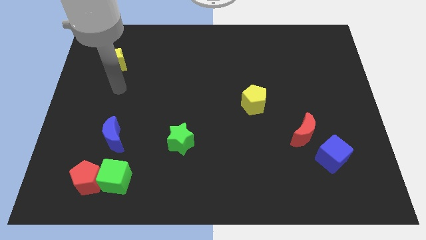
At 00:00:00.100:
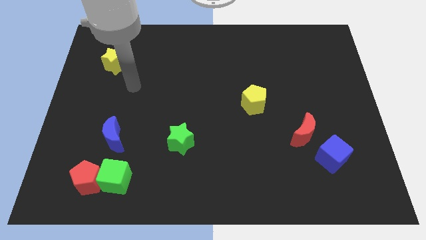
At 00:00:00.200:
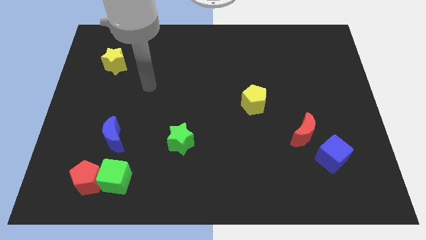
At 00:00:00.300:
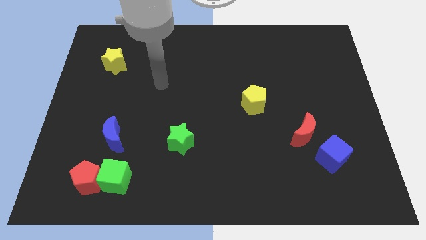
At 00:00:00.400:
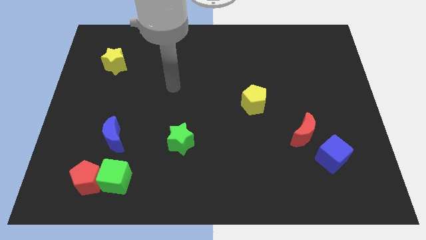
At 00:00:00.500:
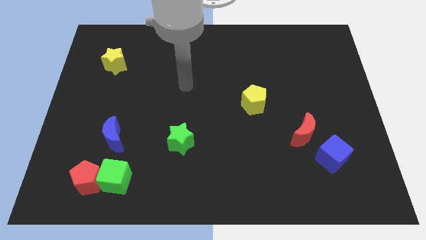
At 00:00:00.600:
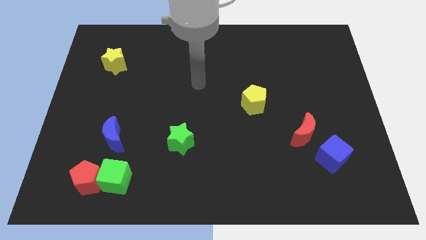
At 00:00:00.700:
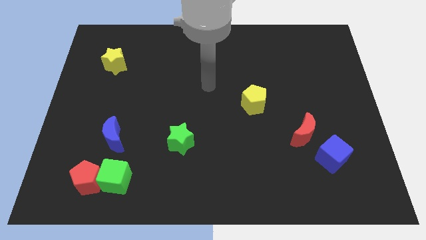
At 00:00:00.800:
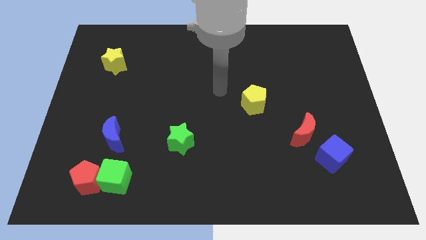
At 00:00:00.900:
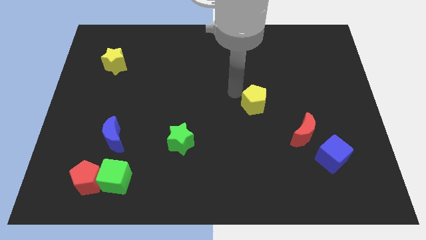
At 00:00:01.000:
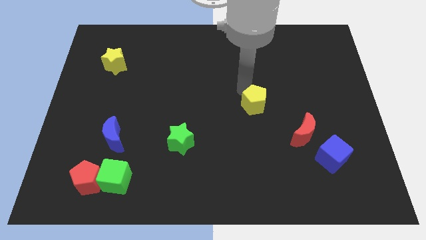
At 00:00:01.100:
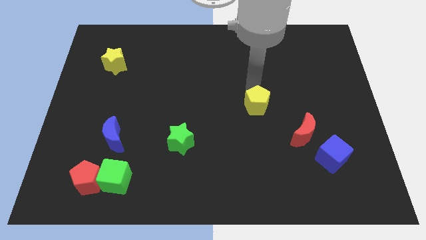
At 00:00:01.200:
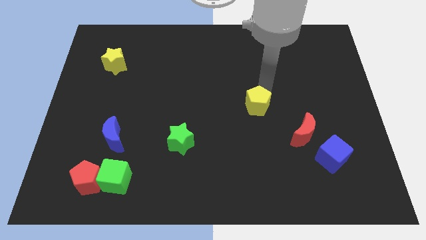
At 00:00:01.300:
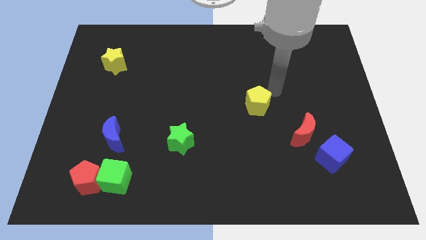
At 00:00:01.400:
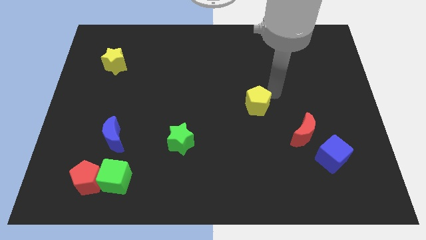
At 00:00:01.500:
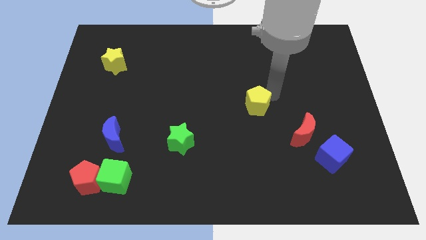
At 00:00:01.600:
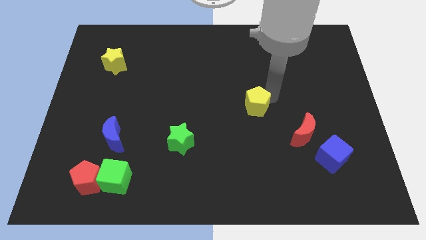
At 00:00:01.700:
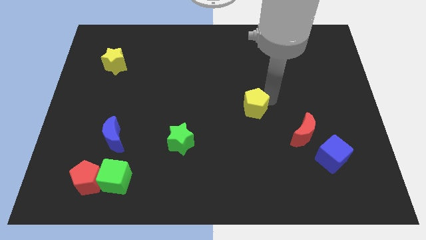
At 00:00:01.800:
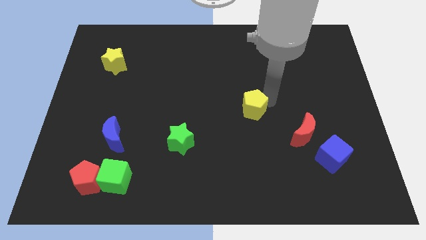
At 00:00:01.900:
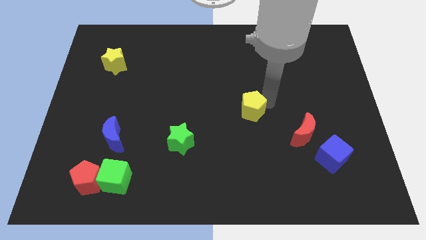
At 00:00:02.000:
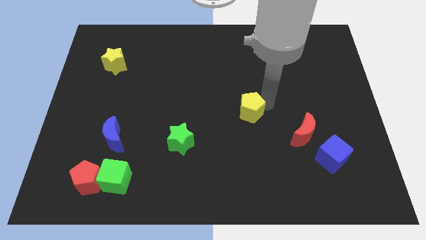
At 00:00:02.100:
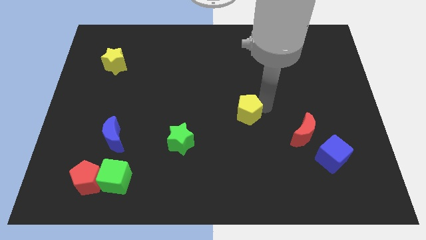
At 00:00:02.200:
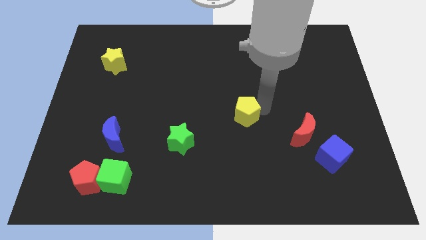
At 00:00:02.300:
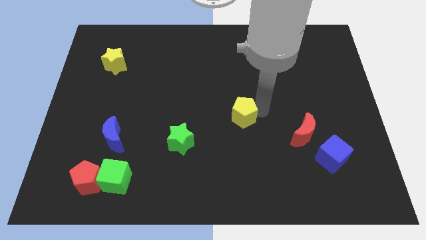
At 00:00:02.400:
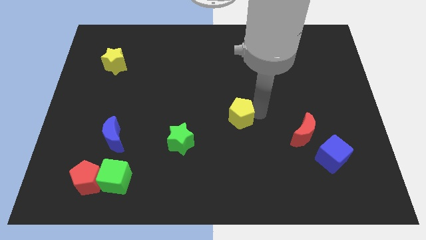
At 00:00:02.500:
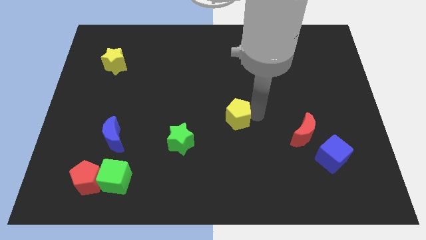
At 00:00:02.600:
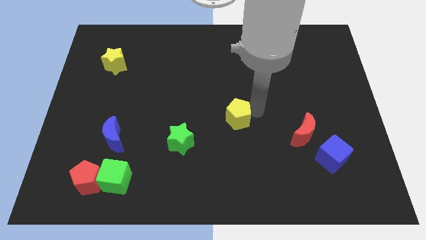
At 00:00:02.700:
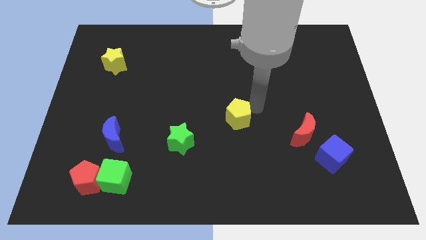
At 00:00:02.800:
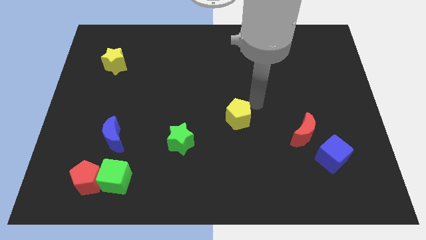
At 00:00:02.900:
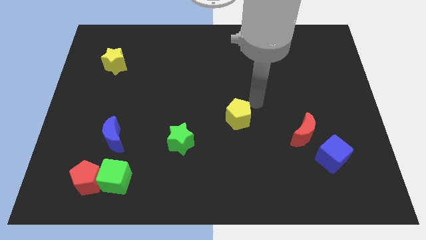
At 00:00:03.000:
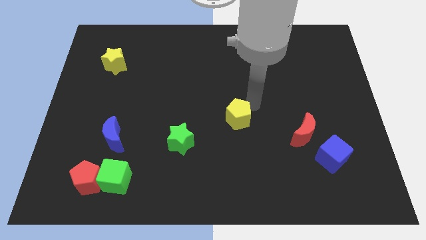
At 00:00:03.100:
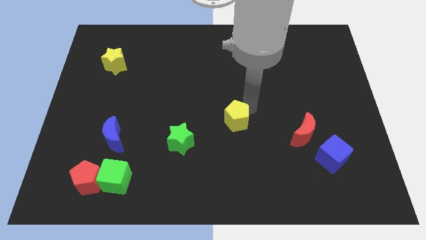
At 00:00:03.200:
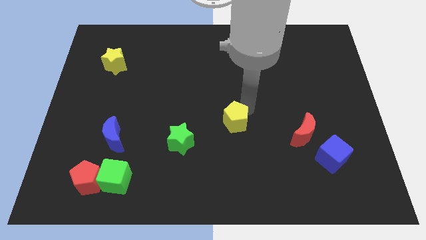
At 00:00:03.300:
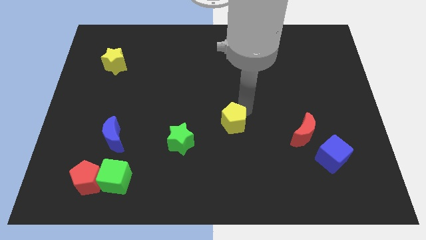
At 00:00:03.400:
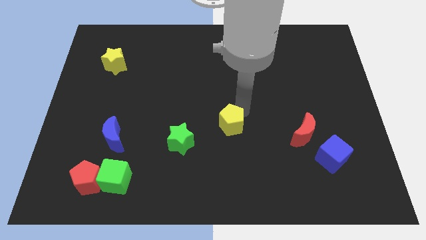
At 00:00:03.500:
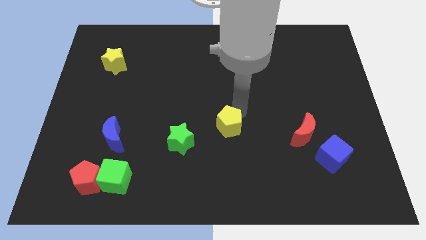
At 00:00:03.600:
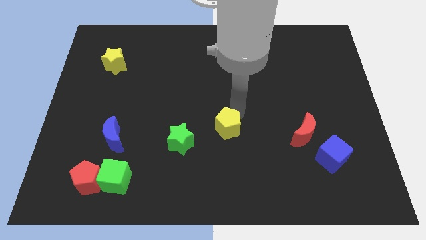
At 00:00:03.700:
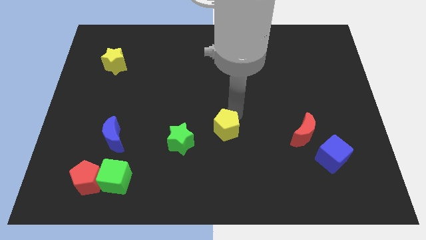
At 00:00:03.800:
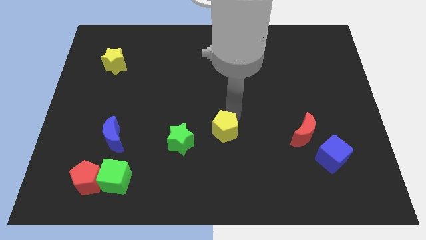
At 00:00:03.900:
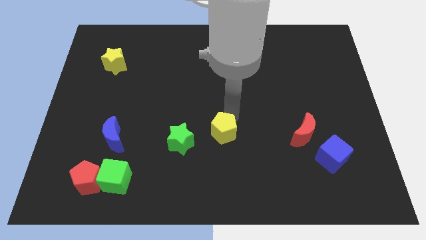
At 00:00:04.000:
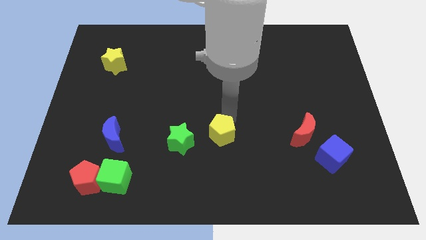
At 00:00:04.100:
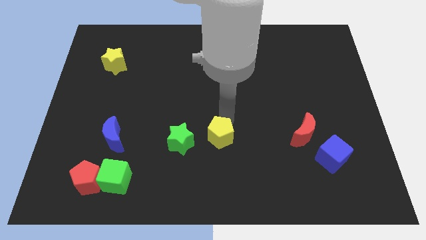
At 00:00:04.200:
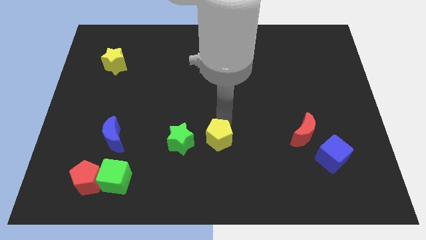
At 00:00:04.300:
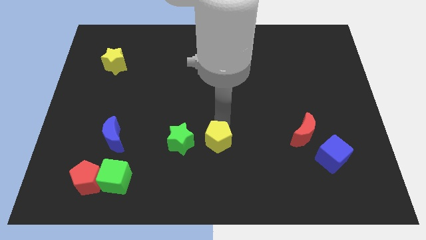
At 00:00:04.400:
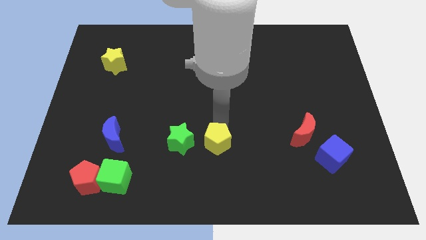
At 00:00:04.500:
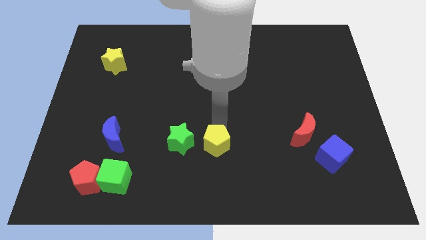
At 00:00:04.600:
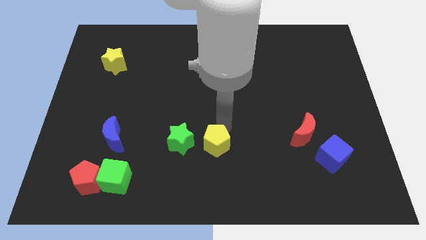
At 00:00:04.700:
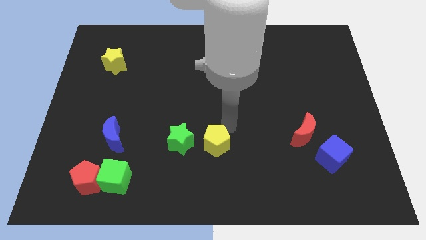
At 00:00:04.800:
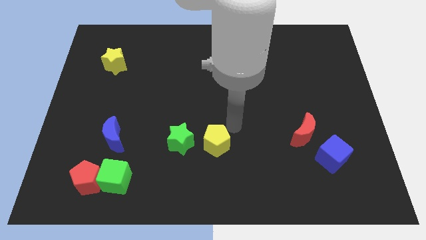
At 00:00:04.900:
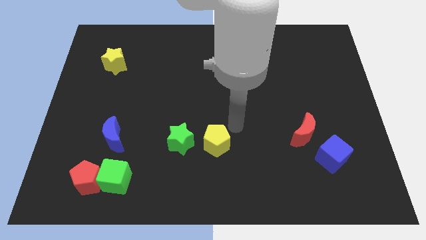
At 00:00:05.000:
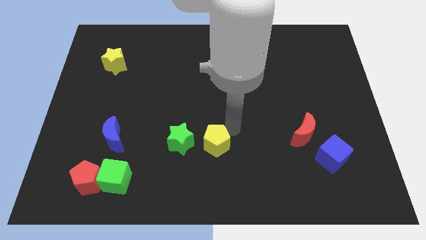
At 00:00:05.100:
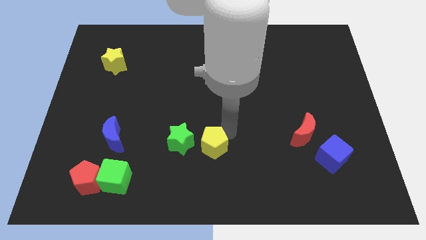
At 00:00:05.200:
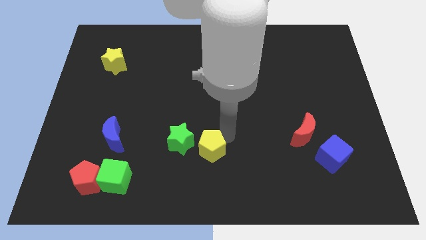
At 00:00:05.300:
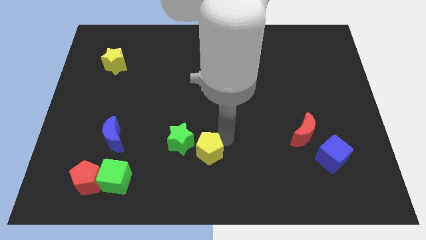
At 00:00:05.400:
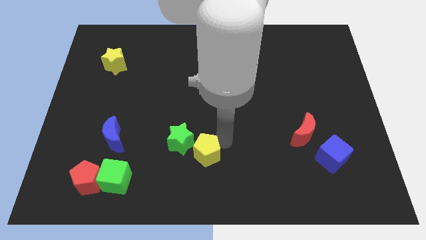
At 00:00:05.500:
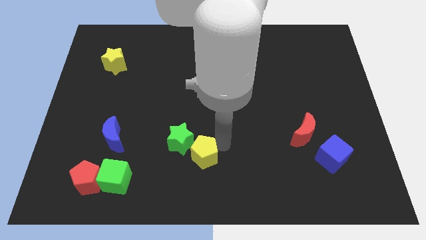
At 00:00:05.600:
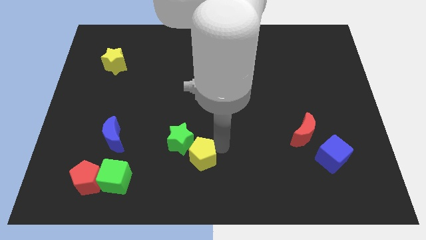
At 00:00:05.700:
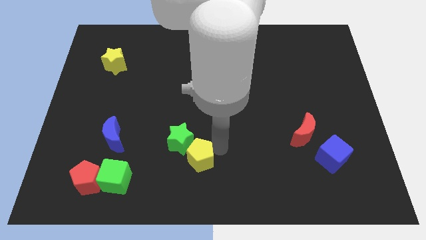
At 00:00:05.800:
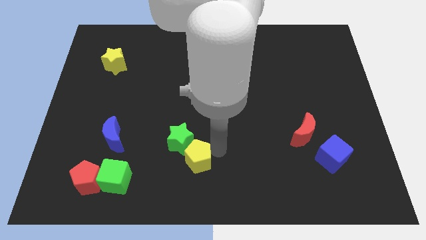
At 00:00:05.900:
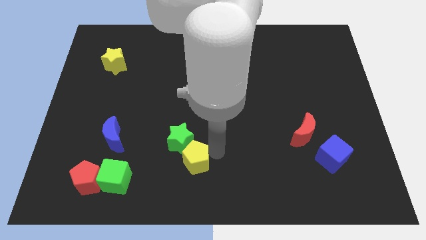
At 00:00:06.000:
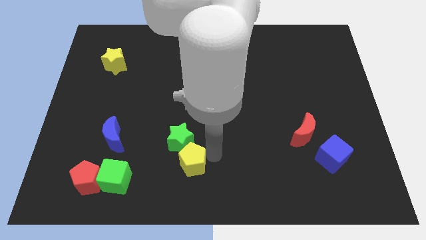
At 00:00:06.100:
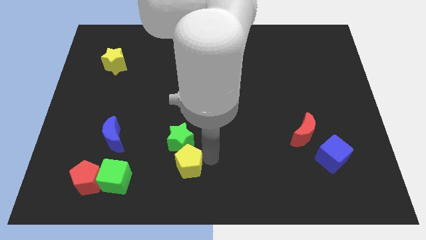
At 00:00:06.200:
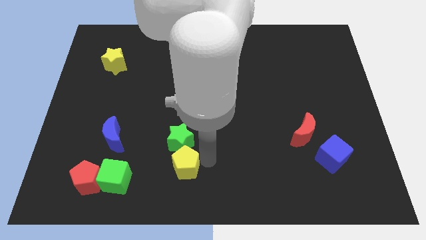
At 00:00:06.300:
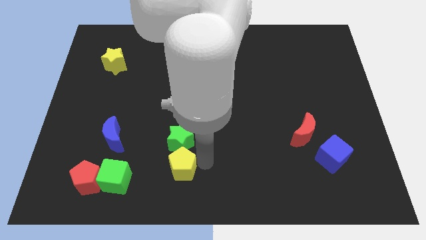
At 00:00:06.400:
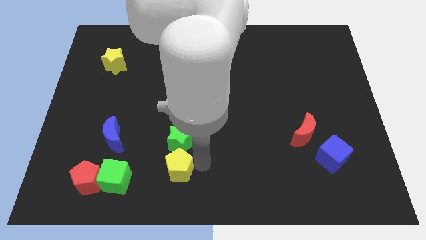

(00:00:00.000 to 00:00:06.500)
put the yellow pentagon diagonally down and to the left of the green star
